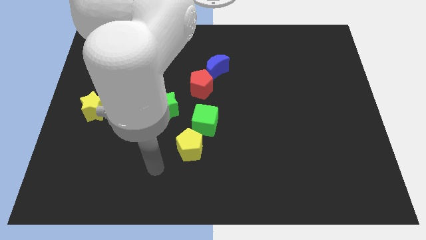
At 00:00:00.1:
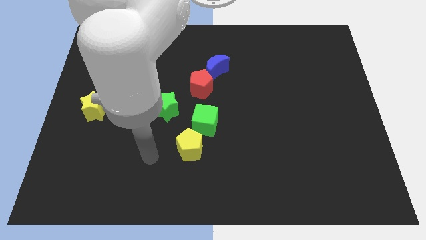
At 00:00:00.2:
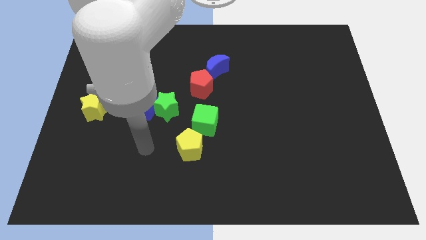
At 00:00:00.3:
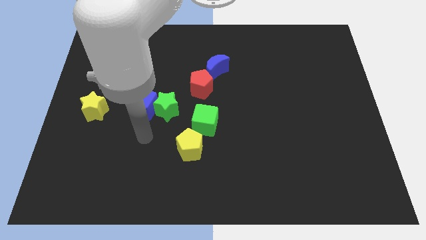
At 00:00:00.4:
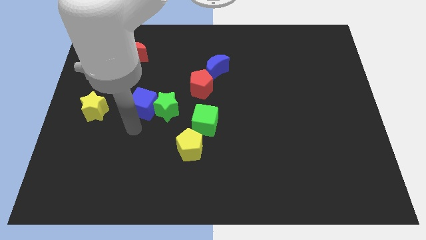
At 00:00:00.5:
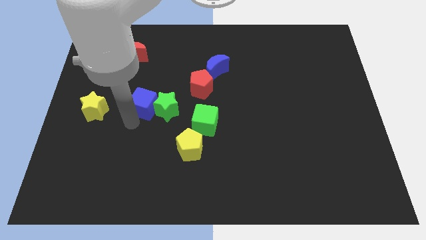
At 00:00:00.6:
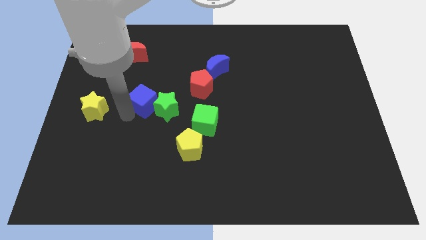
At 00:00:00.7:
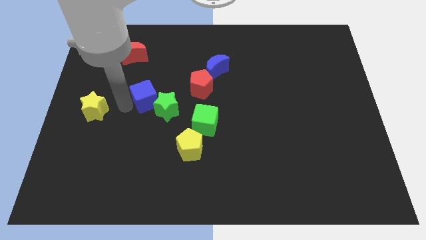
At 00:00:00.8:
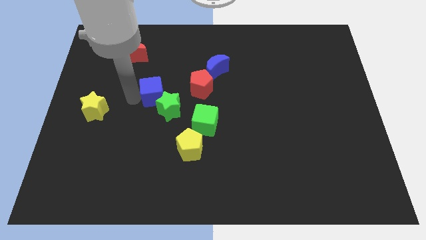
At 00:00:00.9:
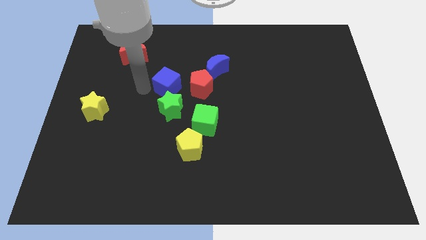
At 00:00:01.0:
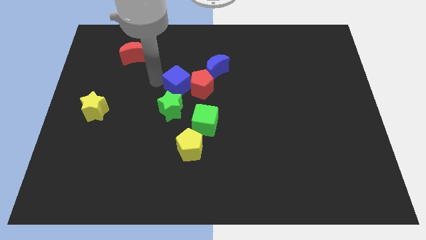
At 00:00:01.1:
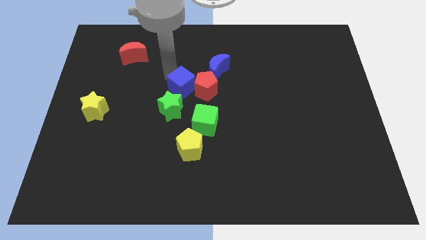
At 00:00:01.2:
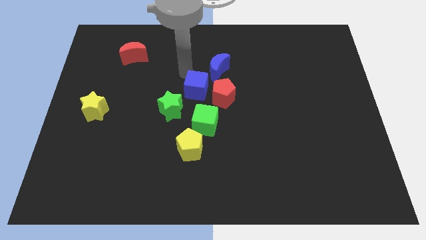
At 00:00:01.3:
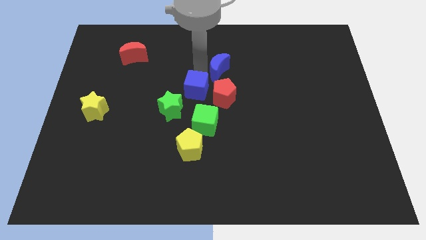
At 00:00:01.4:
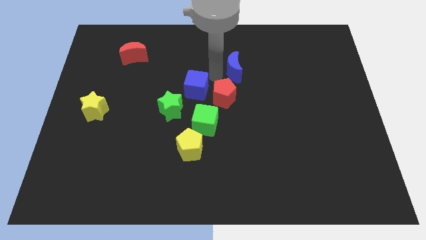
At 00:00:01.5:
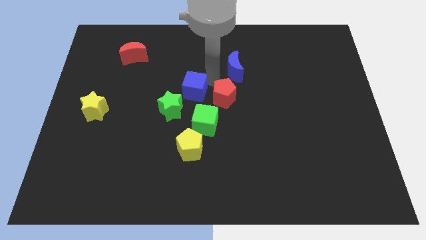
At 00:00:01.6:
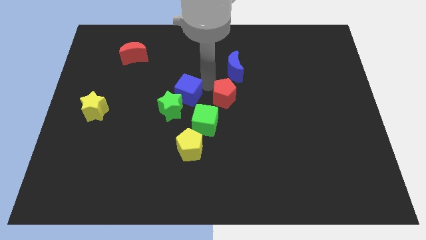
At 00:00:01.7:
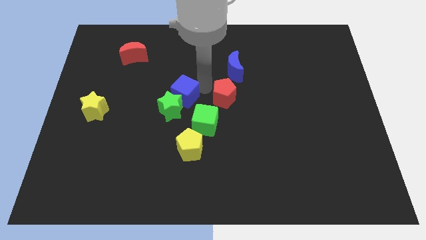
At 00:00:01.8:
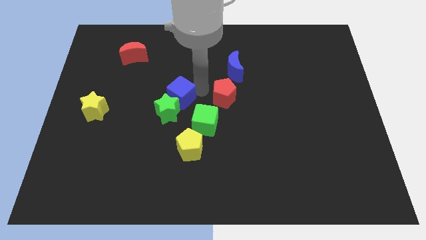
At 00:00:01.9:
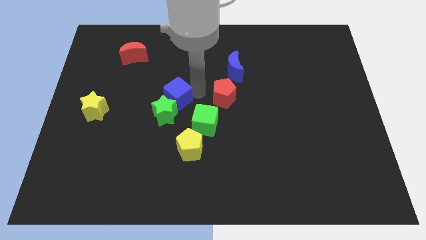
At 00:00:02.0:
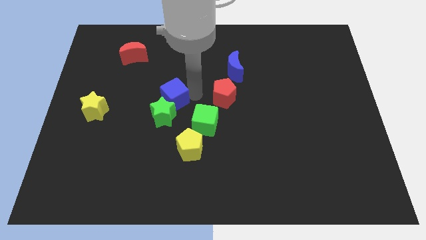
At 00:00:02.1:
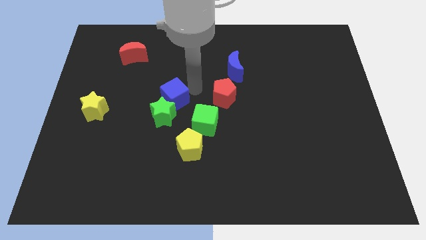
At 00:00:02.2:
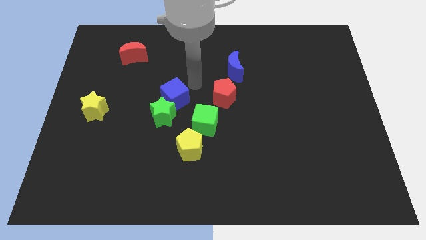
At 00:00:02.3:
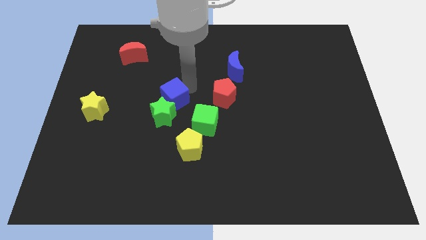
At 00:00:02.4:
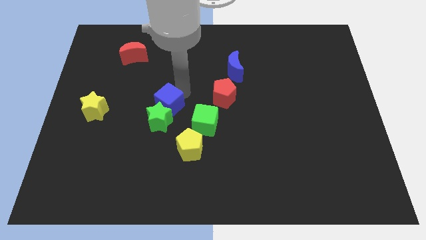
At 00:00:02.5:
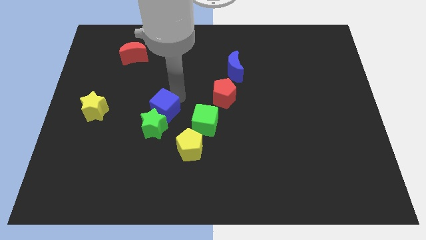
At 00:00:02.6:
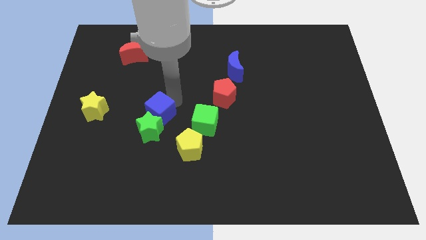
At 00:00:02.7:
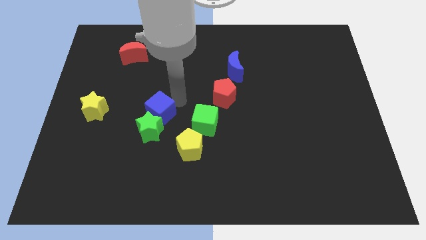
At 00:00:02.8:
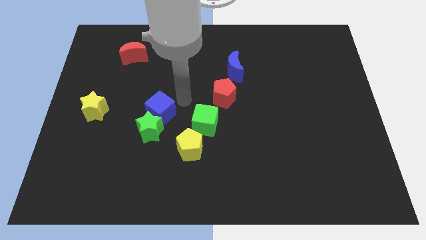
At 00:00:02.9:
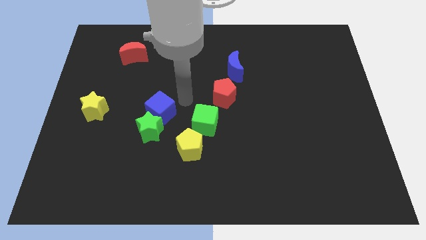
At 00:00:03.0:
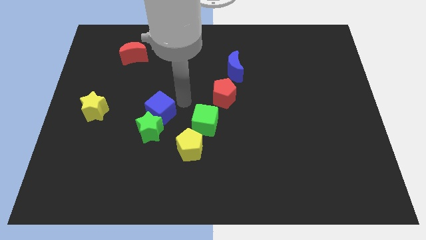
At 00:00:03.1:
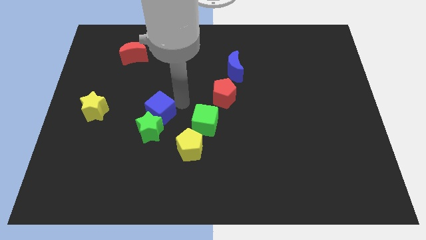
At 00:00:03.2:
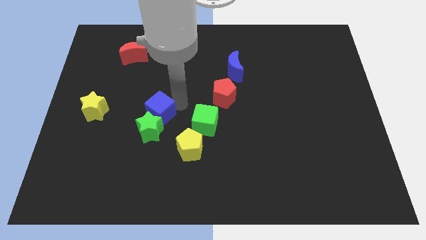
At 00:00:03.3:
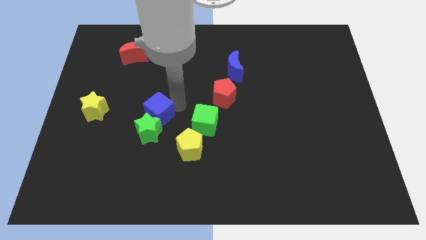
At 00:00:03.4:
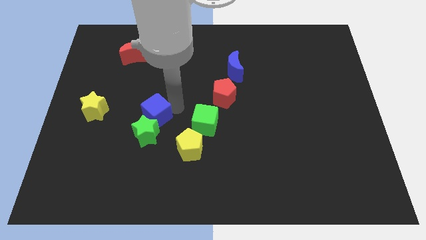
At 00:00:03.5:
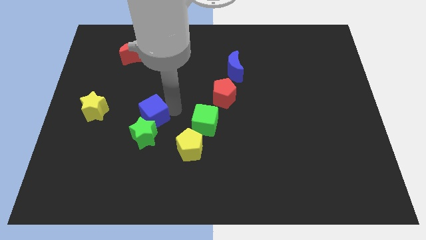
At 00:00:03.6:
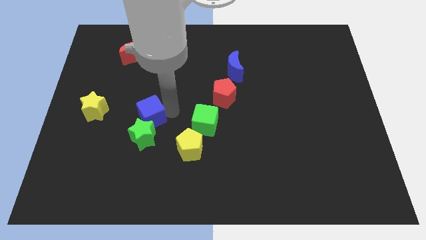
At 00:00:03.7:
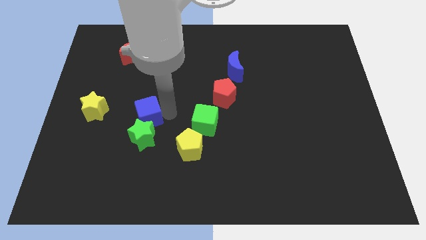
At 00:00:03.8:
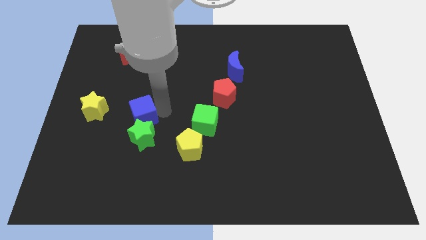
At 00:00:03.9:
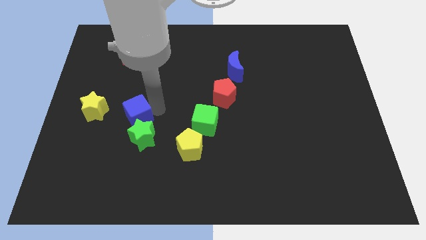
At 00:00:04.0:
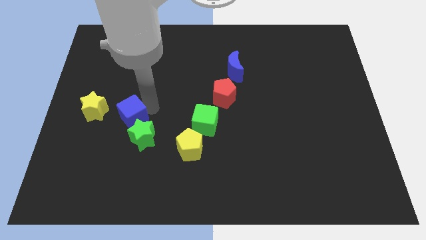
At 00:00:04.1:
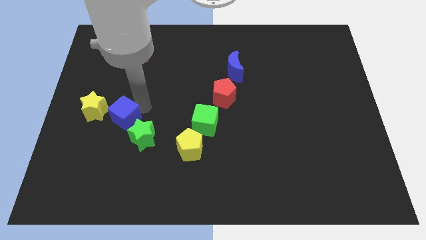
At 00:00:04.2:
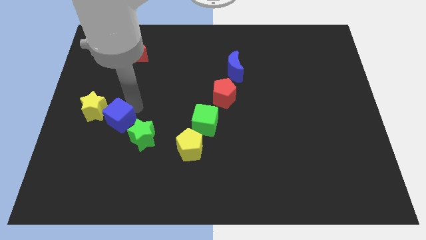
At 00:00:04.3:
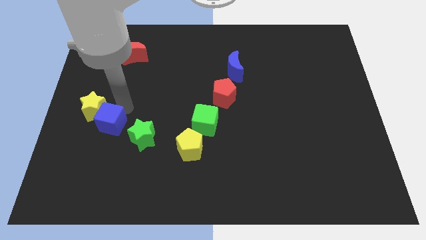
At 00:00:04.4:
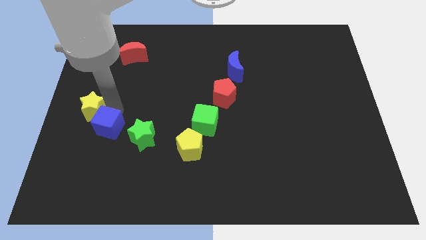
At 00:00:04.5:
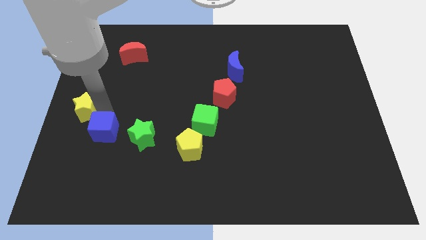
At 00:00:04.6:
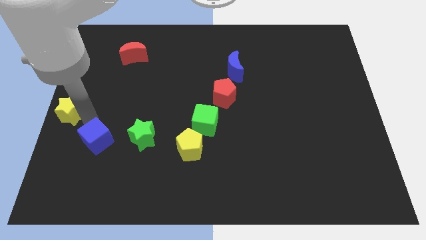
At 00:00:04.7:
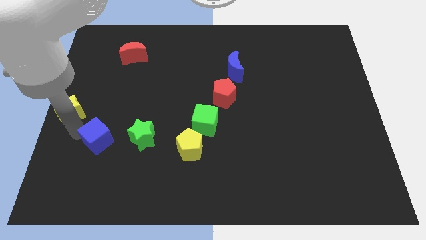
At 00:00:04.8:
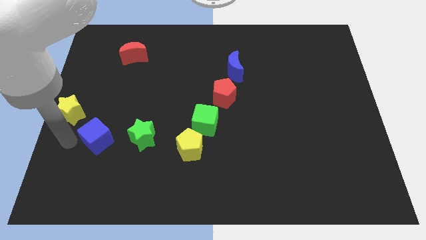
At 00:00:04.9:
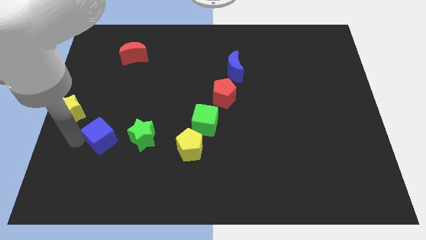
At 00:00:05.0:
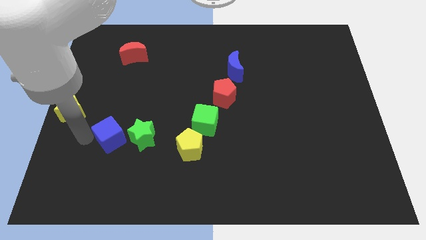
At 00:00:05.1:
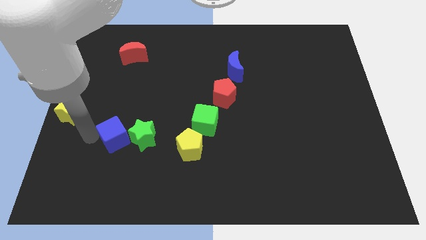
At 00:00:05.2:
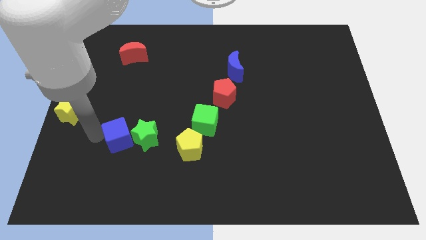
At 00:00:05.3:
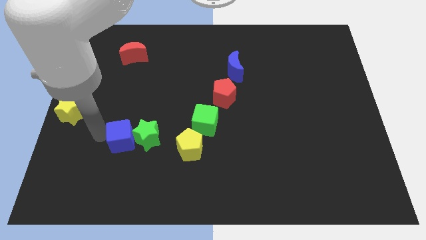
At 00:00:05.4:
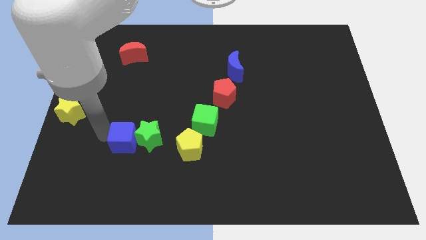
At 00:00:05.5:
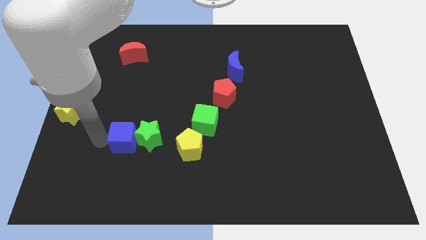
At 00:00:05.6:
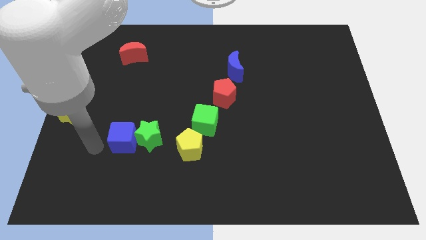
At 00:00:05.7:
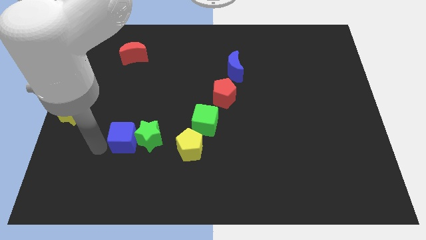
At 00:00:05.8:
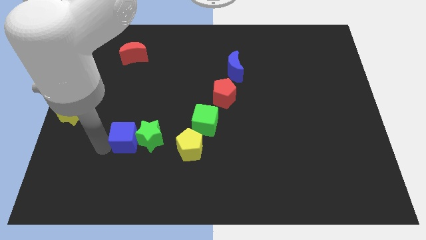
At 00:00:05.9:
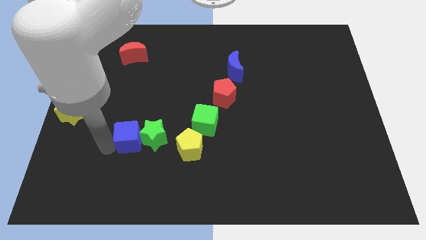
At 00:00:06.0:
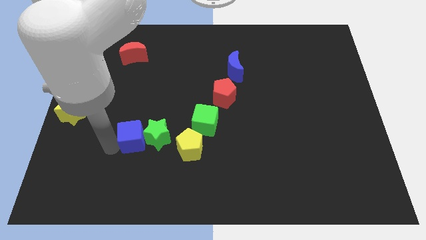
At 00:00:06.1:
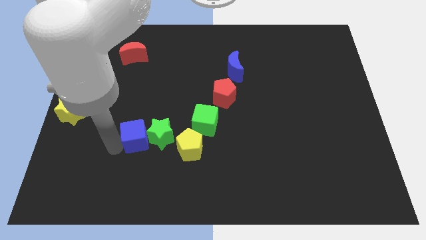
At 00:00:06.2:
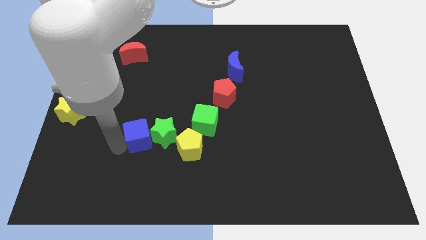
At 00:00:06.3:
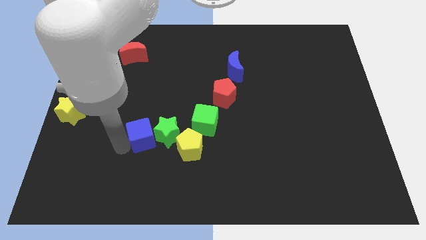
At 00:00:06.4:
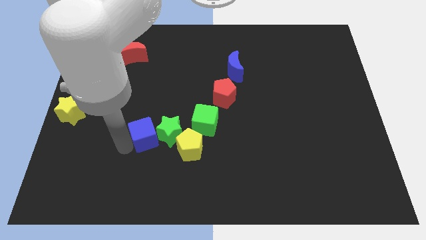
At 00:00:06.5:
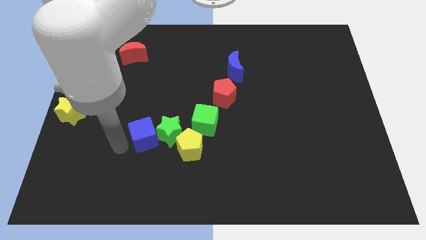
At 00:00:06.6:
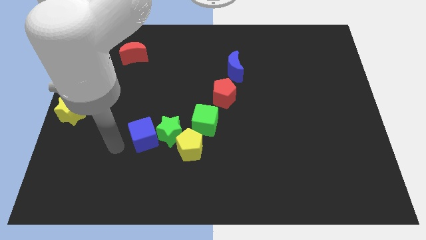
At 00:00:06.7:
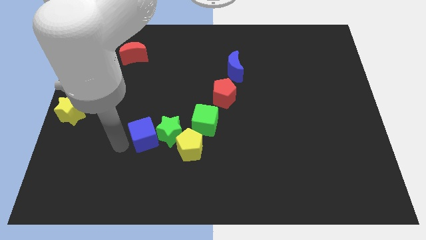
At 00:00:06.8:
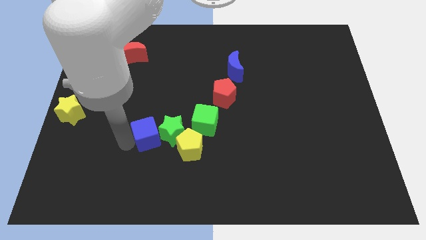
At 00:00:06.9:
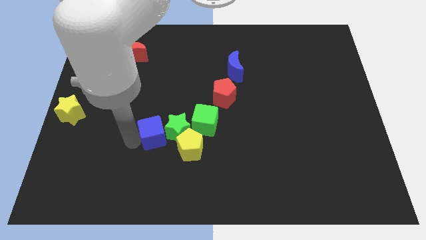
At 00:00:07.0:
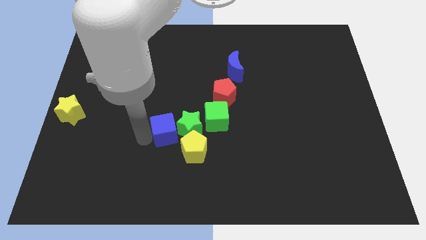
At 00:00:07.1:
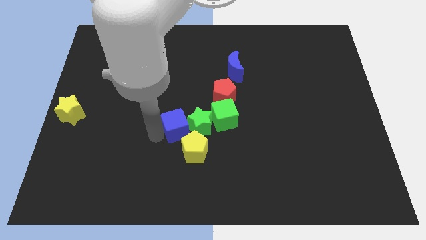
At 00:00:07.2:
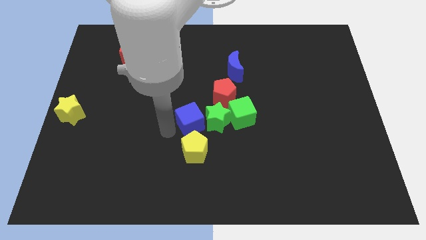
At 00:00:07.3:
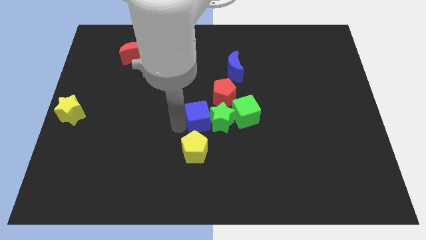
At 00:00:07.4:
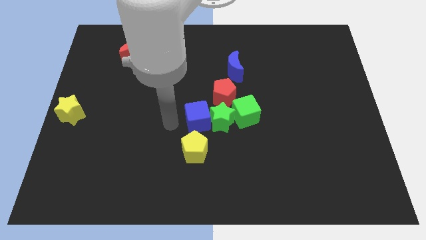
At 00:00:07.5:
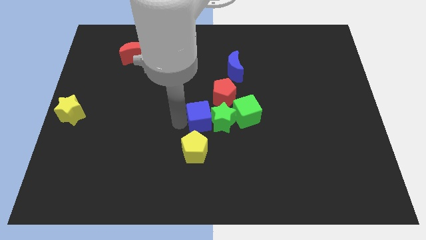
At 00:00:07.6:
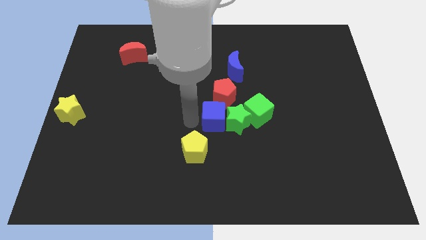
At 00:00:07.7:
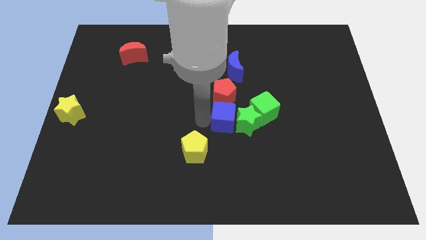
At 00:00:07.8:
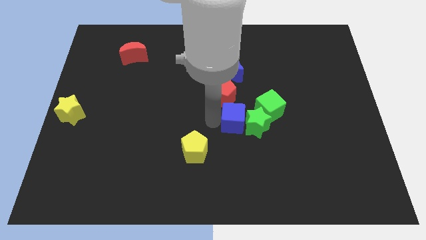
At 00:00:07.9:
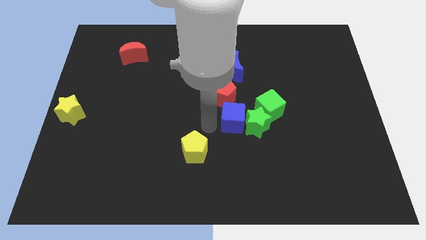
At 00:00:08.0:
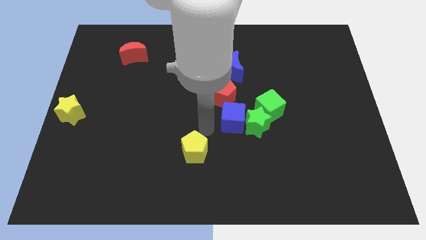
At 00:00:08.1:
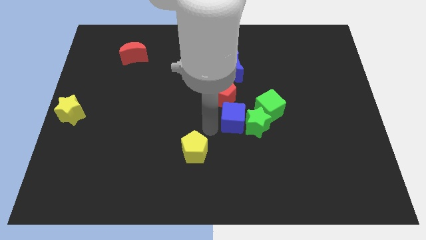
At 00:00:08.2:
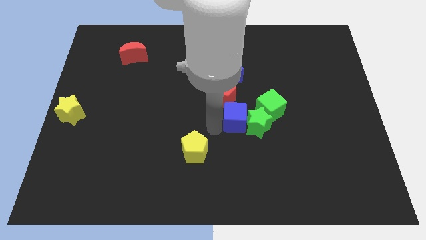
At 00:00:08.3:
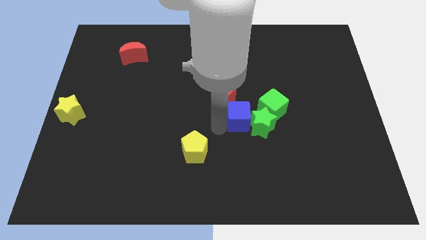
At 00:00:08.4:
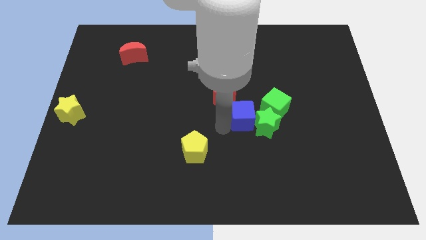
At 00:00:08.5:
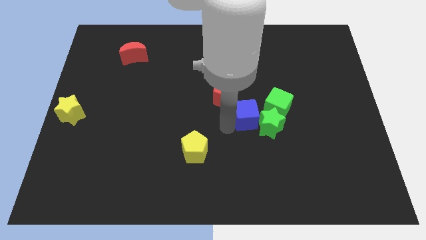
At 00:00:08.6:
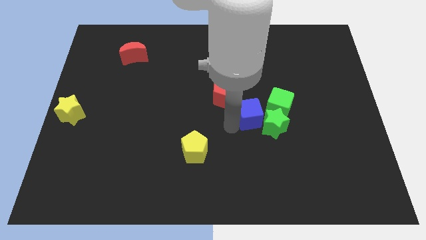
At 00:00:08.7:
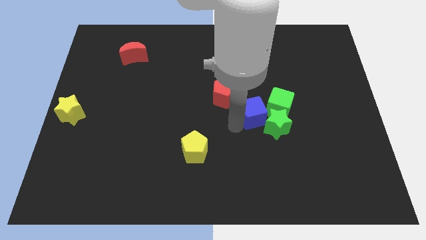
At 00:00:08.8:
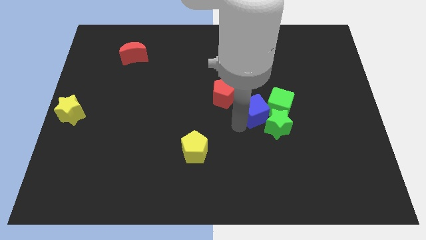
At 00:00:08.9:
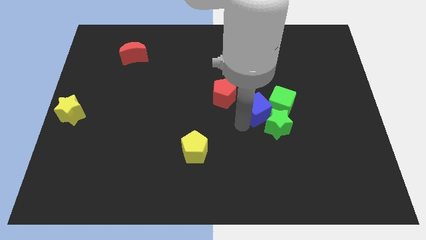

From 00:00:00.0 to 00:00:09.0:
slide the blue cube to the green cube
